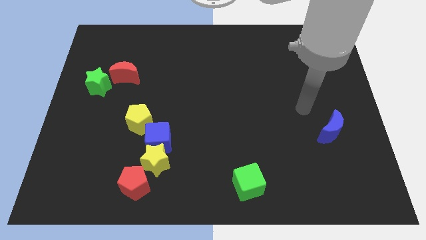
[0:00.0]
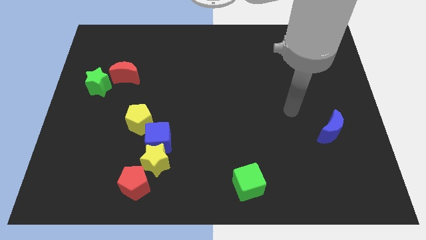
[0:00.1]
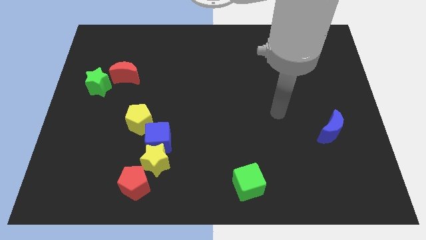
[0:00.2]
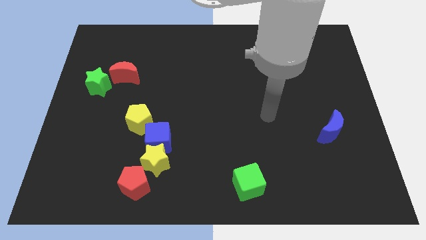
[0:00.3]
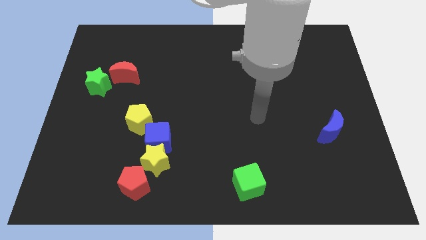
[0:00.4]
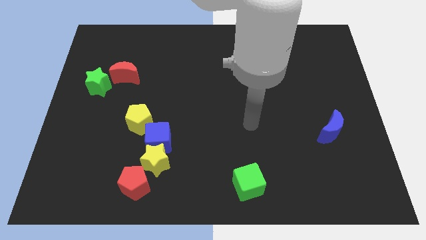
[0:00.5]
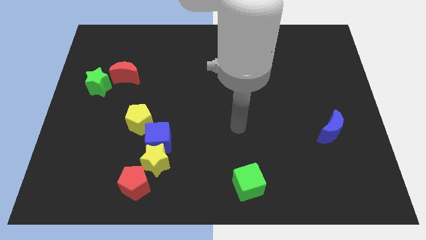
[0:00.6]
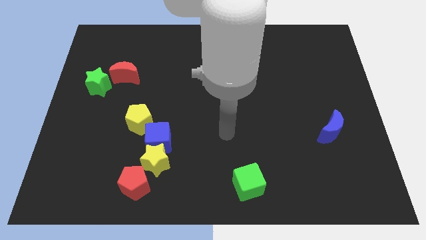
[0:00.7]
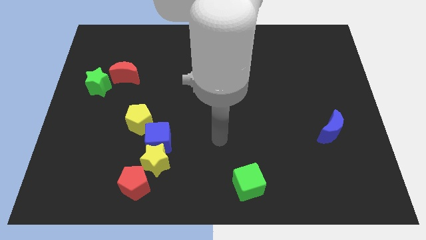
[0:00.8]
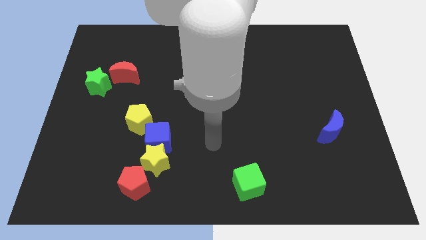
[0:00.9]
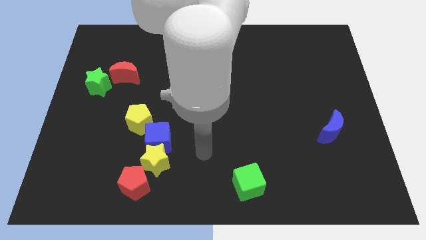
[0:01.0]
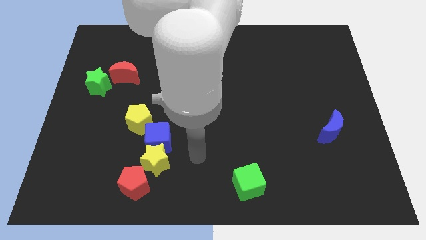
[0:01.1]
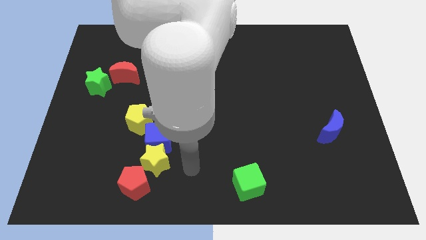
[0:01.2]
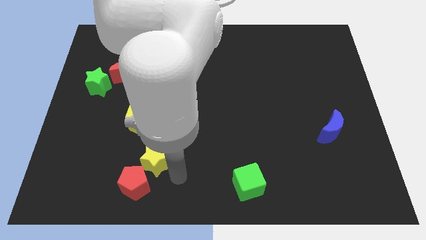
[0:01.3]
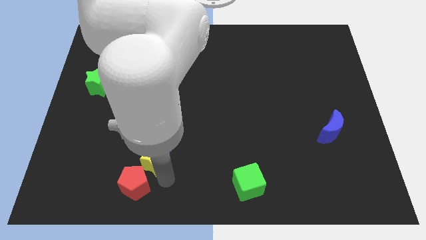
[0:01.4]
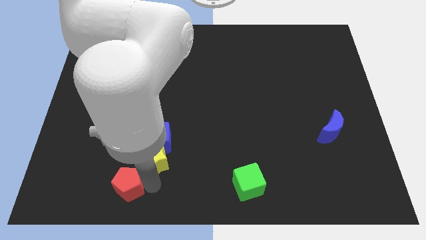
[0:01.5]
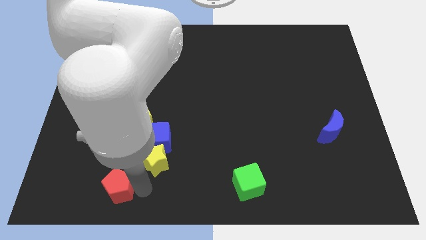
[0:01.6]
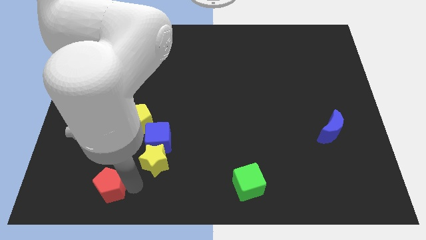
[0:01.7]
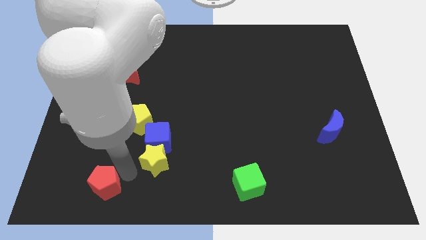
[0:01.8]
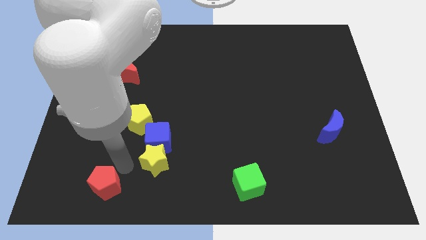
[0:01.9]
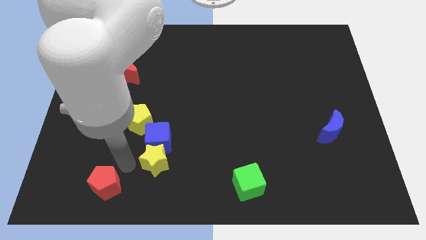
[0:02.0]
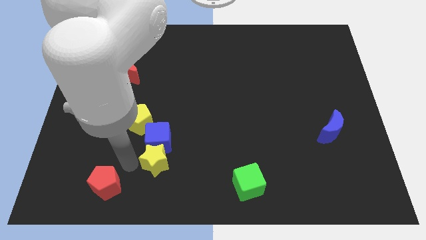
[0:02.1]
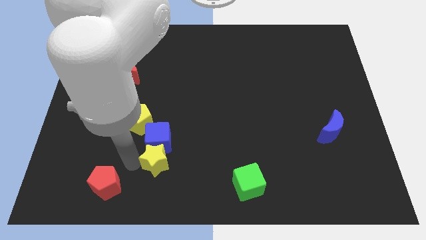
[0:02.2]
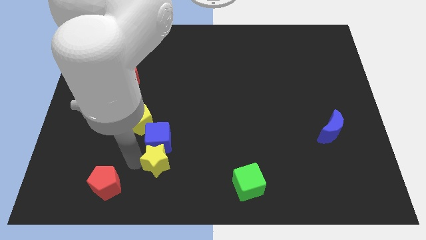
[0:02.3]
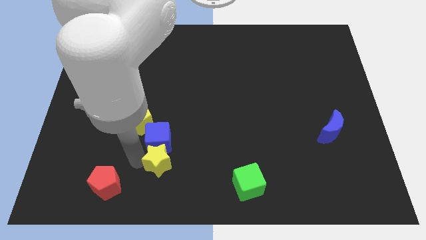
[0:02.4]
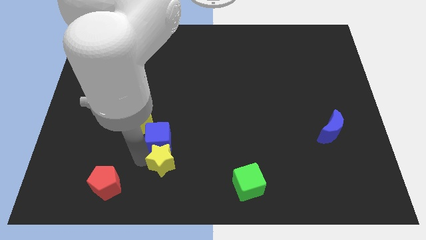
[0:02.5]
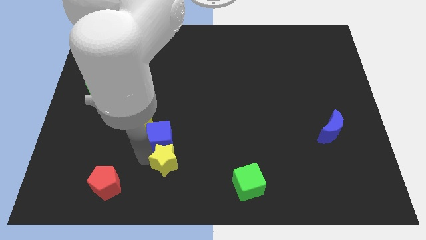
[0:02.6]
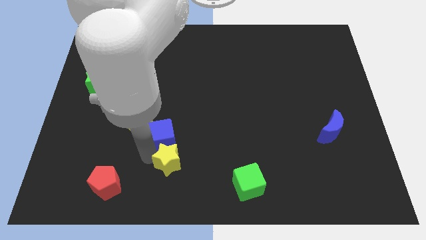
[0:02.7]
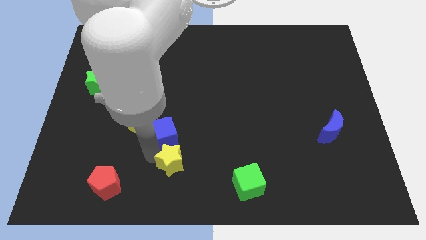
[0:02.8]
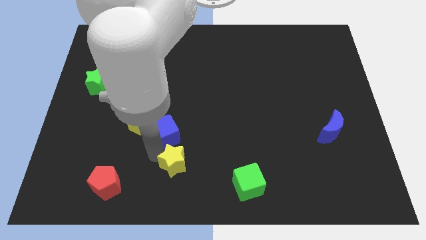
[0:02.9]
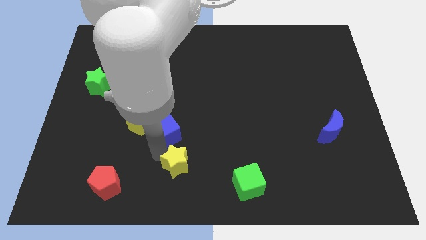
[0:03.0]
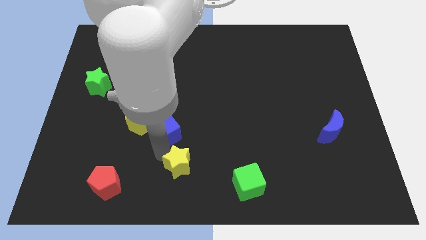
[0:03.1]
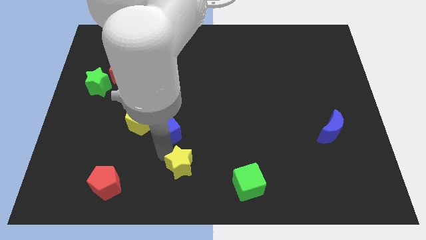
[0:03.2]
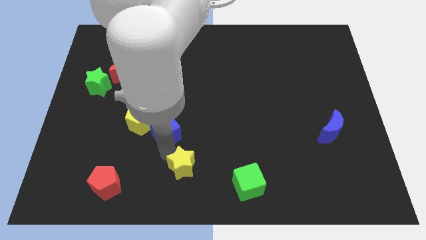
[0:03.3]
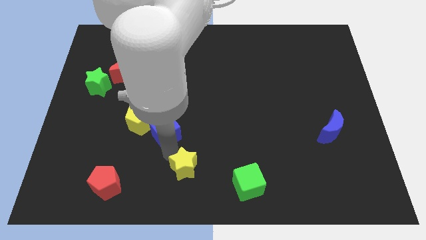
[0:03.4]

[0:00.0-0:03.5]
move the yellow star away from the blue cube and red pentagon

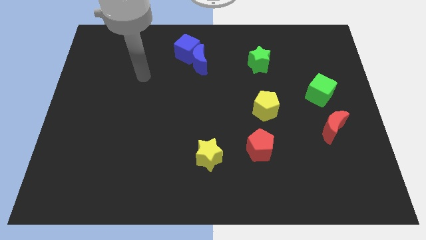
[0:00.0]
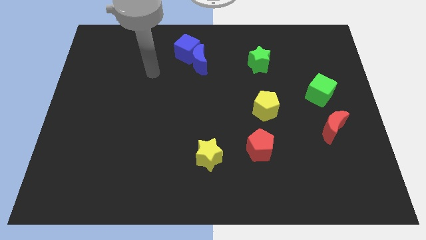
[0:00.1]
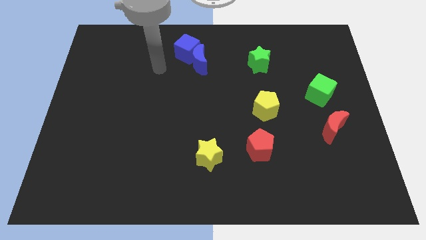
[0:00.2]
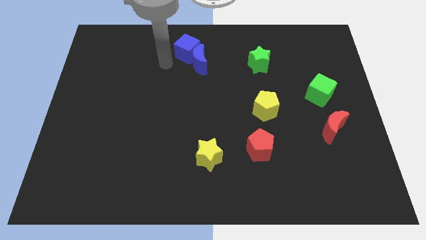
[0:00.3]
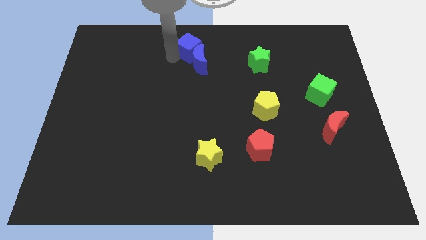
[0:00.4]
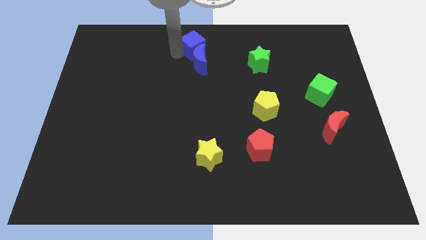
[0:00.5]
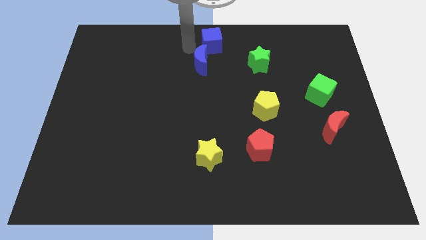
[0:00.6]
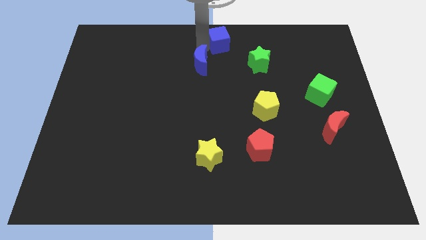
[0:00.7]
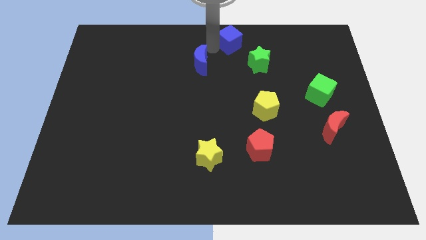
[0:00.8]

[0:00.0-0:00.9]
move the blue moon away from the blue cube

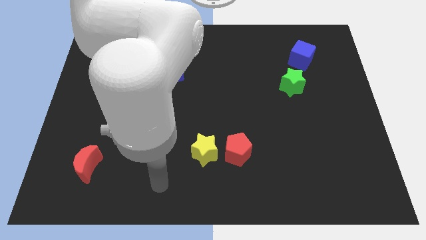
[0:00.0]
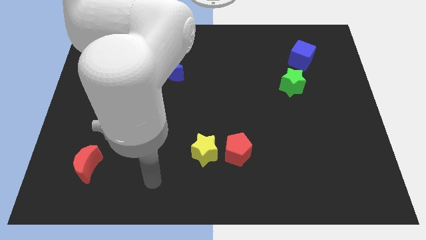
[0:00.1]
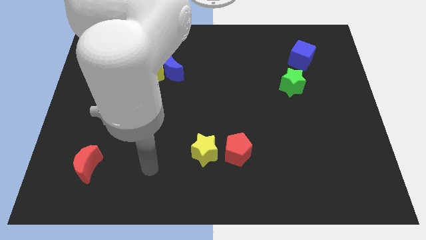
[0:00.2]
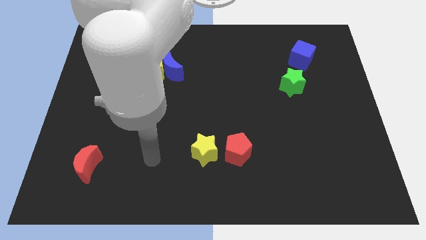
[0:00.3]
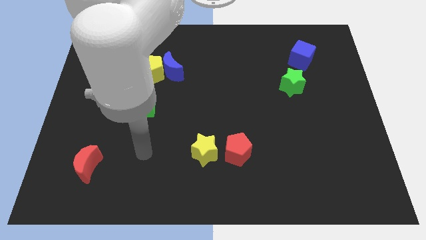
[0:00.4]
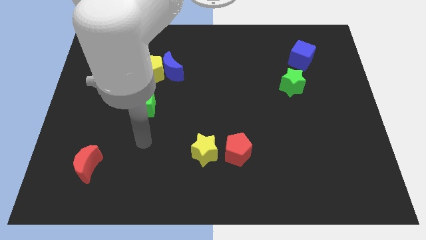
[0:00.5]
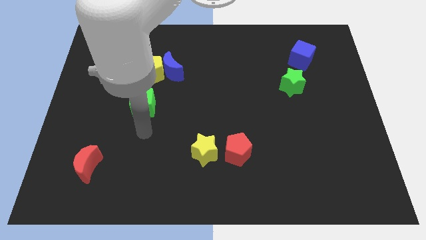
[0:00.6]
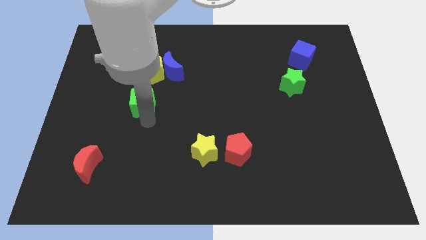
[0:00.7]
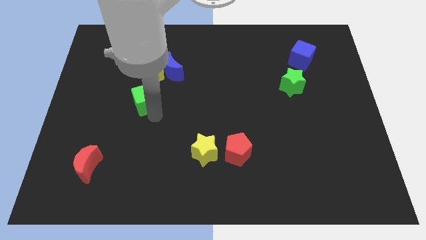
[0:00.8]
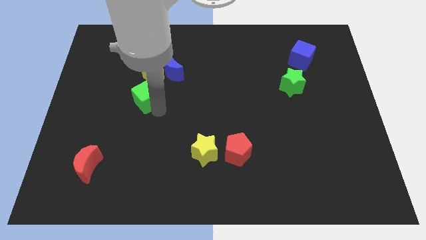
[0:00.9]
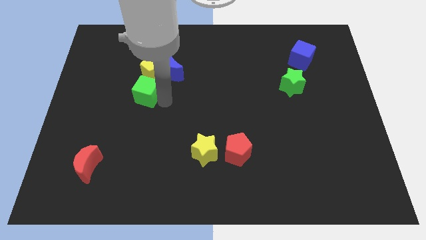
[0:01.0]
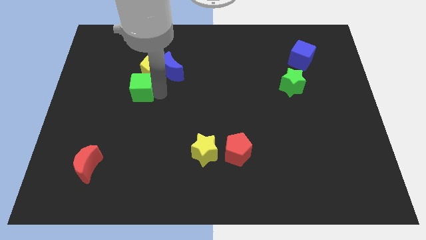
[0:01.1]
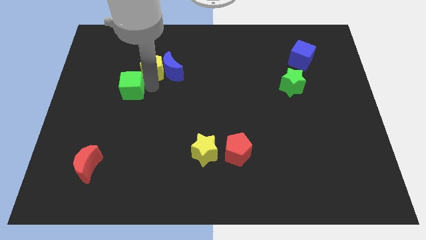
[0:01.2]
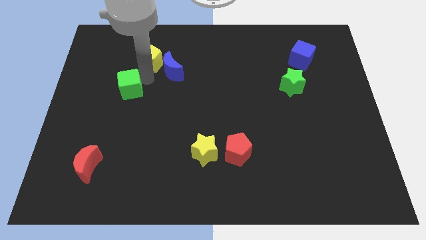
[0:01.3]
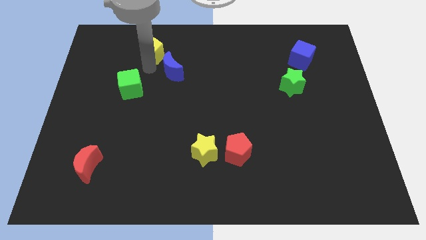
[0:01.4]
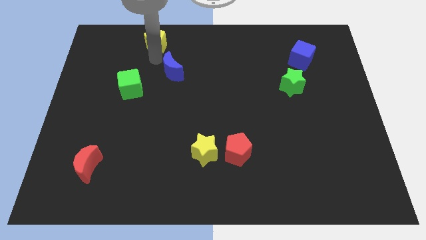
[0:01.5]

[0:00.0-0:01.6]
pull the blue moon apart from the yellow pentagon

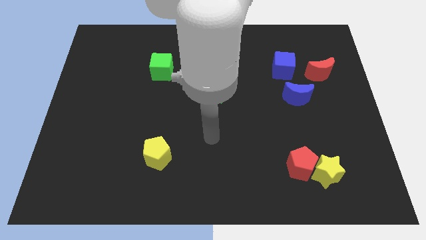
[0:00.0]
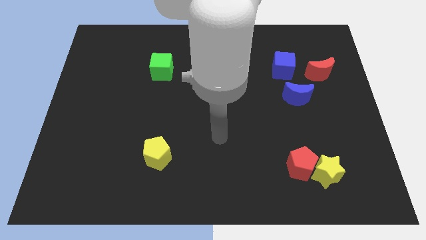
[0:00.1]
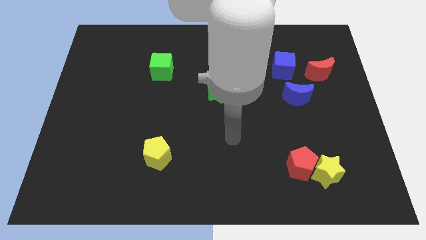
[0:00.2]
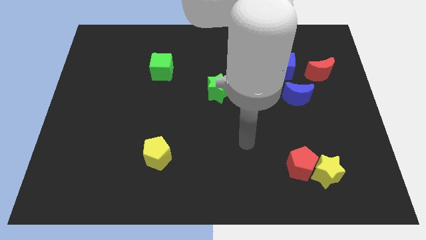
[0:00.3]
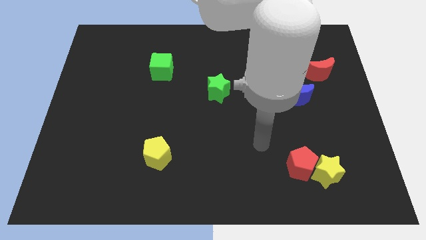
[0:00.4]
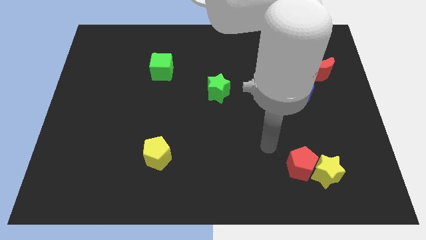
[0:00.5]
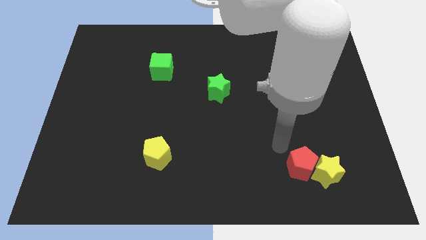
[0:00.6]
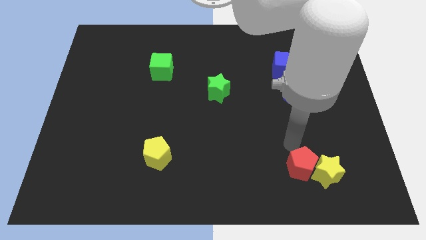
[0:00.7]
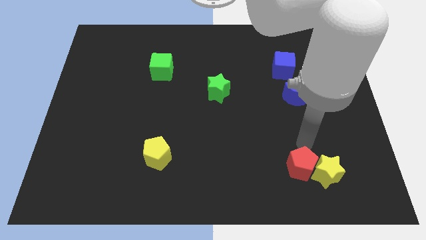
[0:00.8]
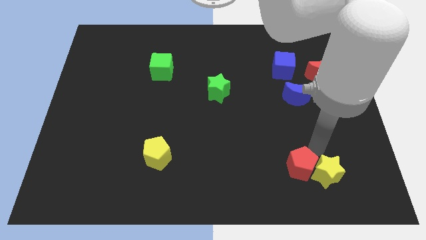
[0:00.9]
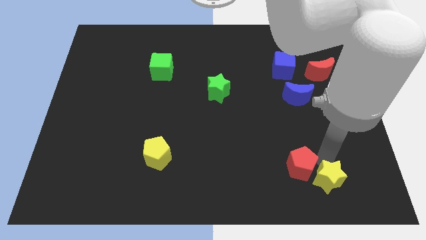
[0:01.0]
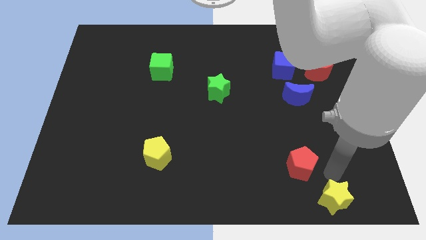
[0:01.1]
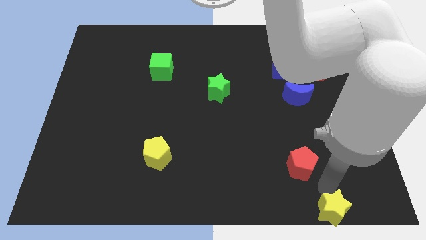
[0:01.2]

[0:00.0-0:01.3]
separate the red pentagon from the yellow star

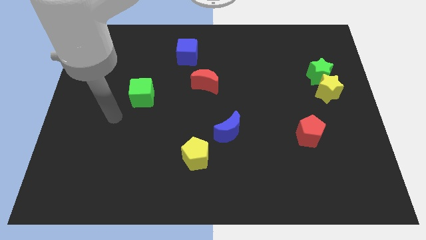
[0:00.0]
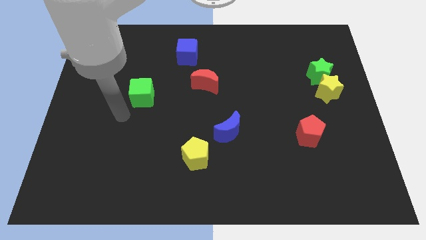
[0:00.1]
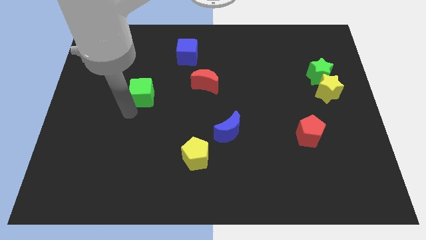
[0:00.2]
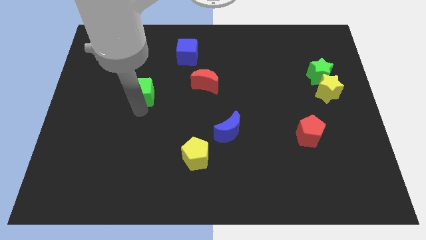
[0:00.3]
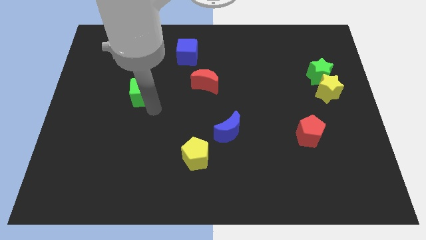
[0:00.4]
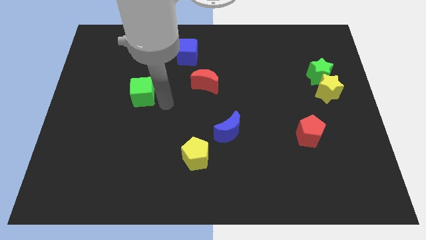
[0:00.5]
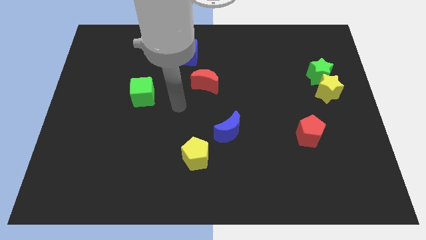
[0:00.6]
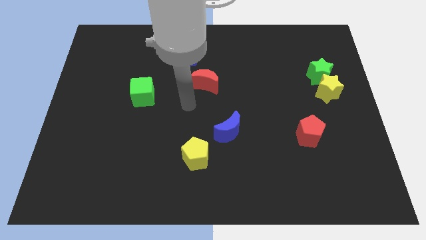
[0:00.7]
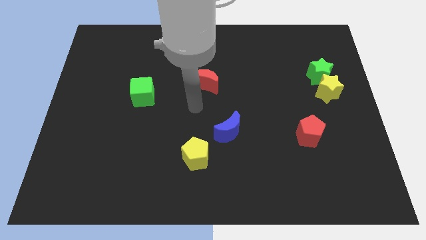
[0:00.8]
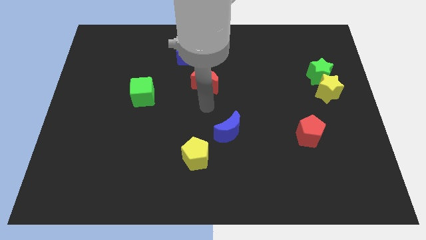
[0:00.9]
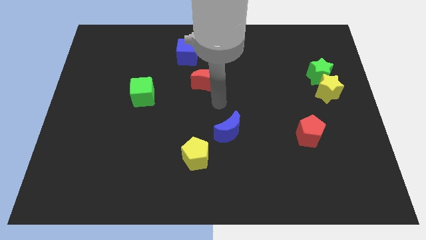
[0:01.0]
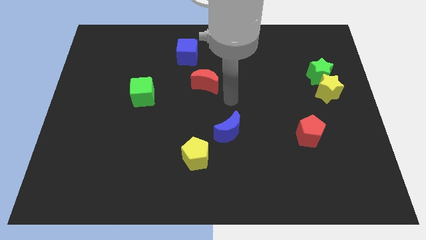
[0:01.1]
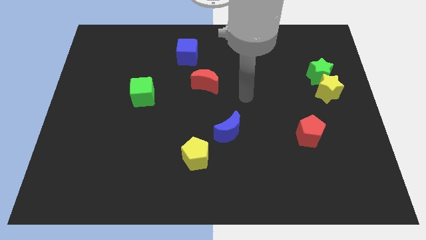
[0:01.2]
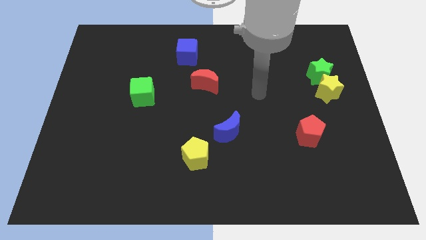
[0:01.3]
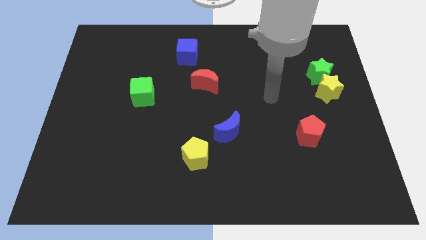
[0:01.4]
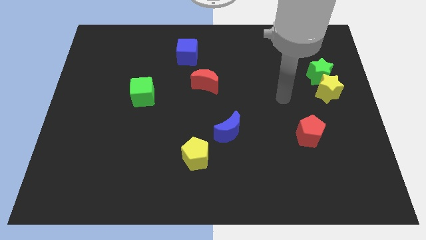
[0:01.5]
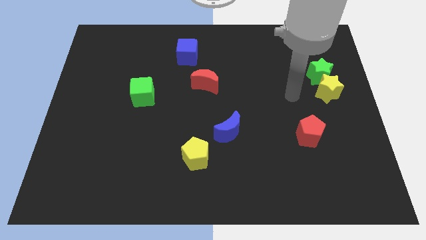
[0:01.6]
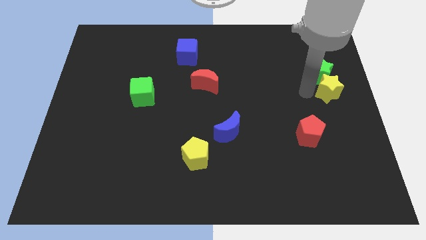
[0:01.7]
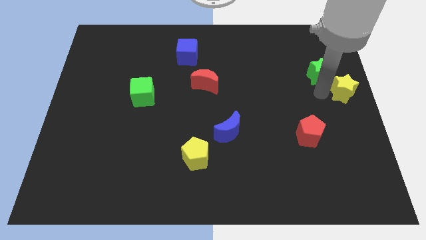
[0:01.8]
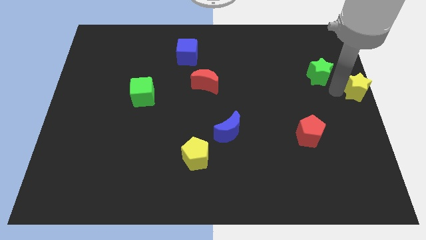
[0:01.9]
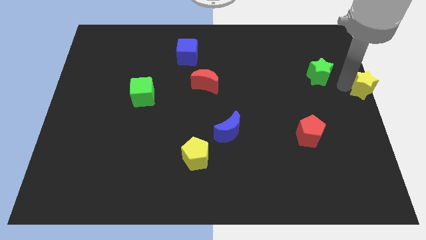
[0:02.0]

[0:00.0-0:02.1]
move the green star away from the yellow star

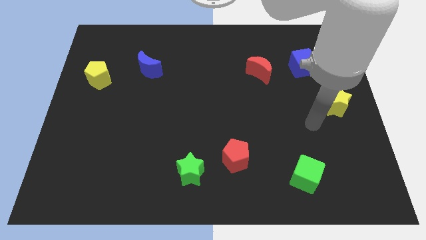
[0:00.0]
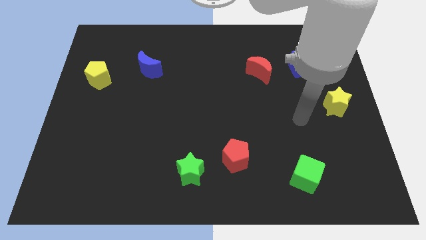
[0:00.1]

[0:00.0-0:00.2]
pull the red pentagon apart from the green star
